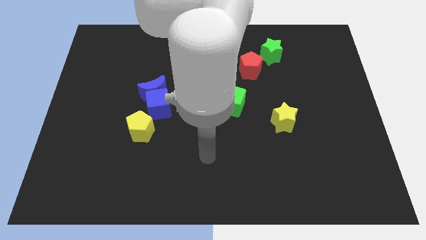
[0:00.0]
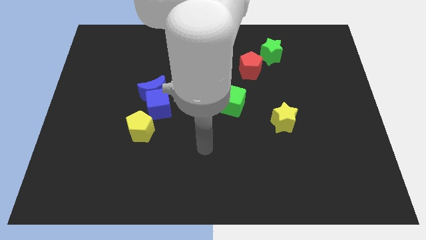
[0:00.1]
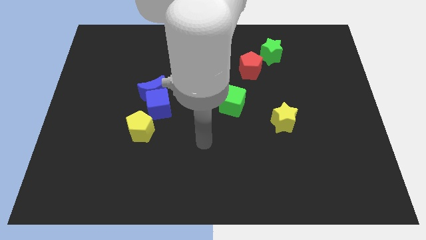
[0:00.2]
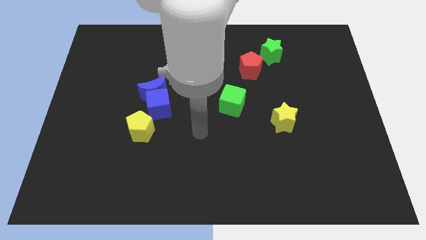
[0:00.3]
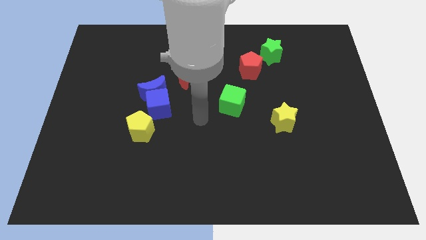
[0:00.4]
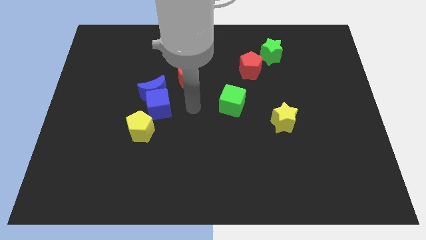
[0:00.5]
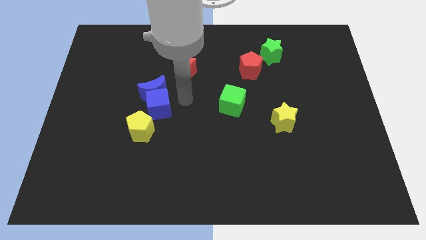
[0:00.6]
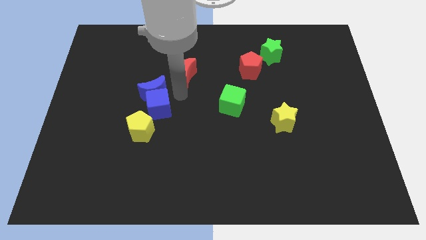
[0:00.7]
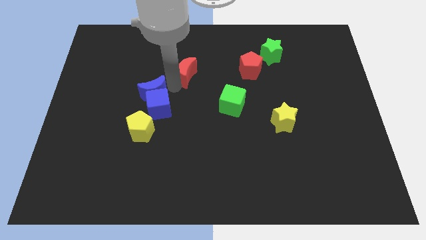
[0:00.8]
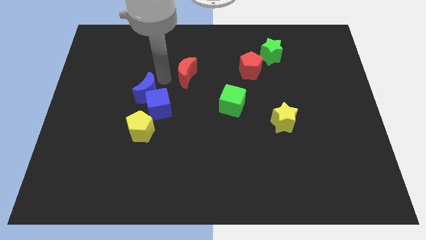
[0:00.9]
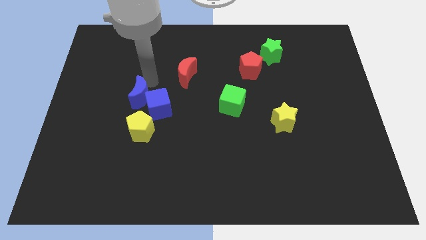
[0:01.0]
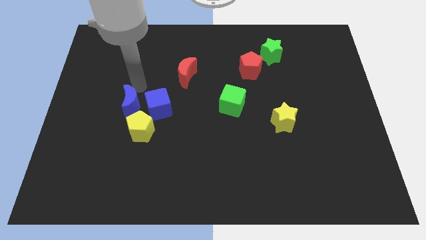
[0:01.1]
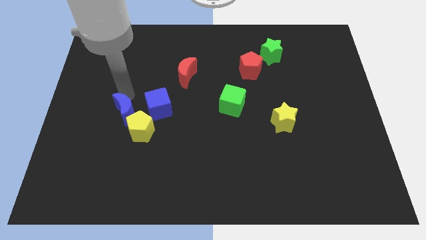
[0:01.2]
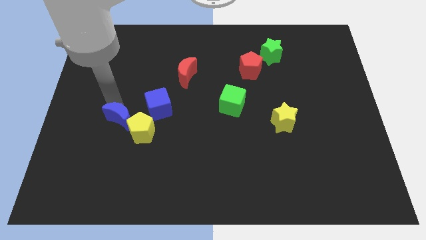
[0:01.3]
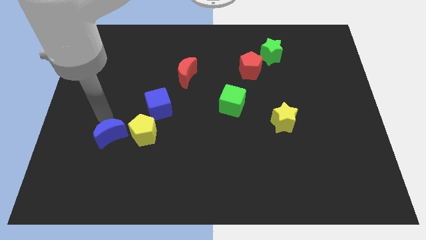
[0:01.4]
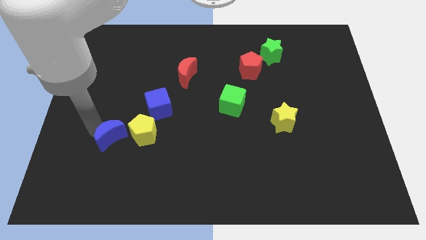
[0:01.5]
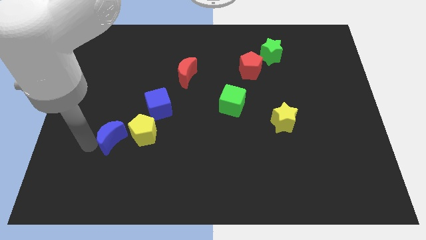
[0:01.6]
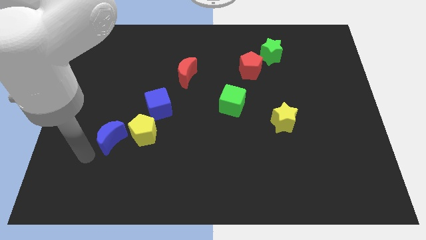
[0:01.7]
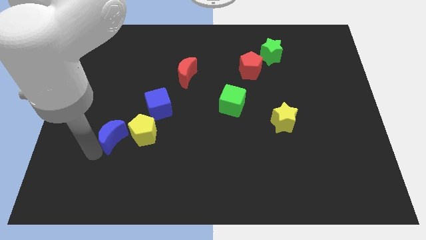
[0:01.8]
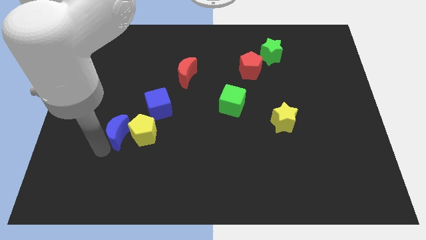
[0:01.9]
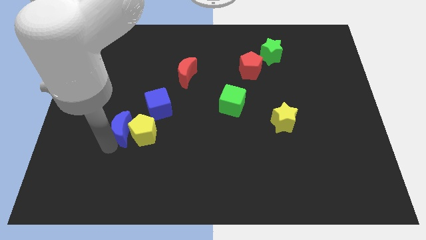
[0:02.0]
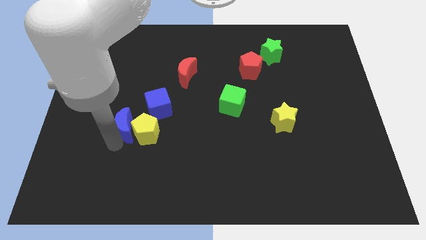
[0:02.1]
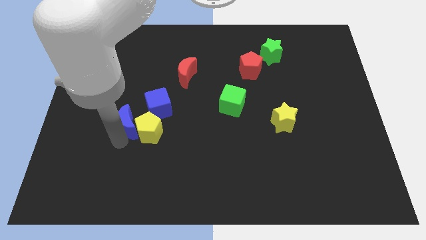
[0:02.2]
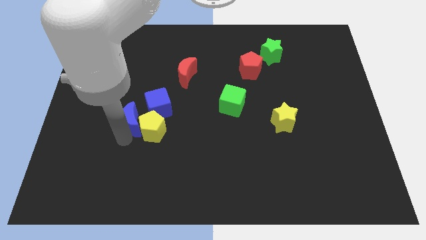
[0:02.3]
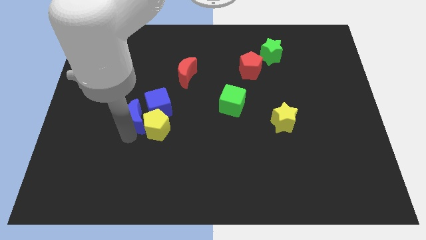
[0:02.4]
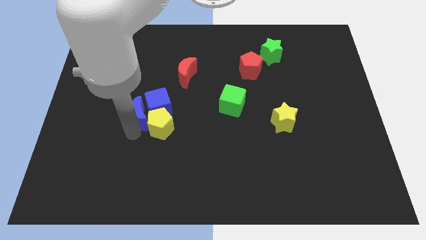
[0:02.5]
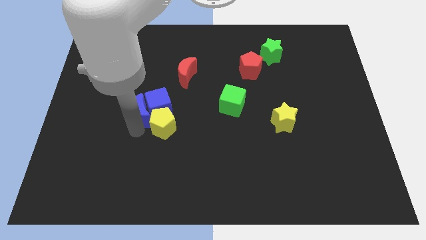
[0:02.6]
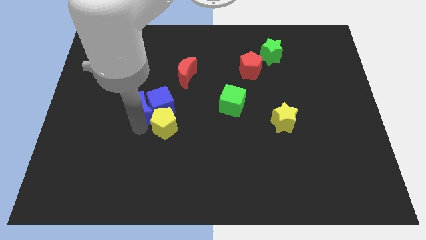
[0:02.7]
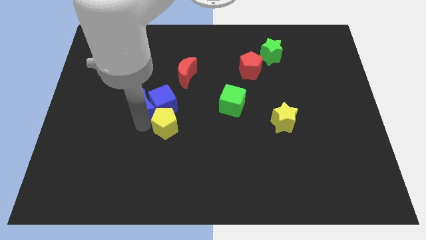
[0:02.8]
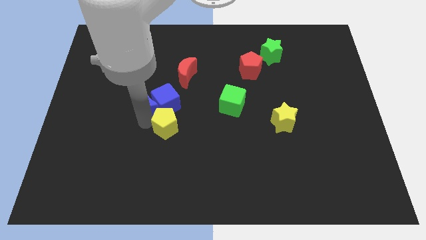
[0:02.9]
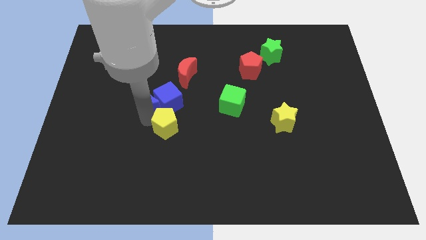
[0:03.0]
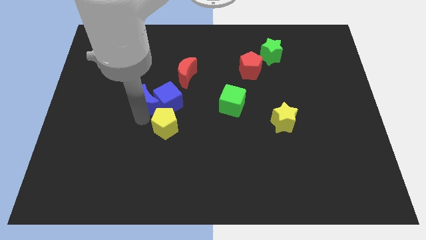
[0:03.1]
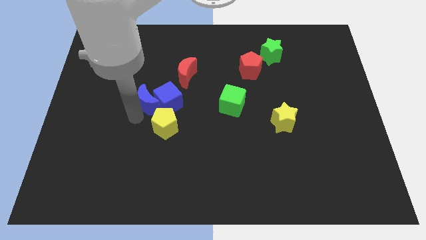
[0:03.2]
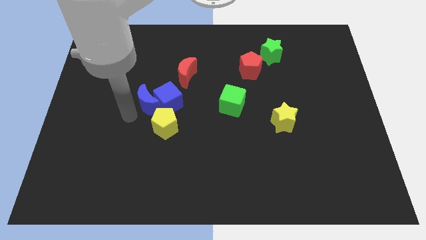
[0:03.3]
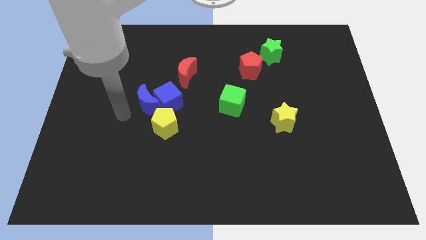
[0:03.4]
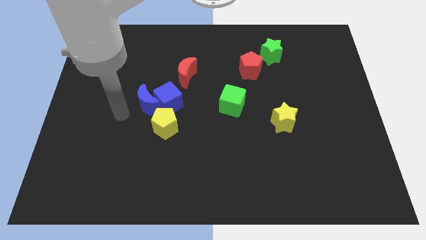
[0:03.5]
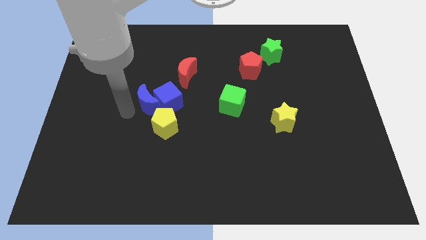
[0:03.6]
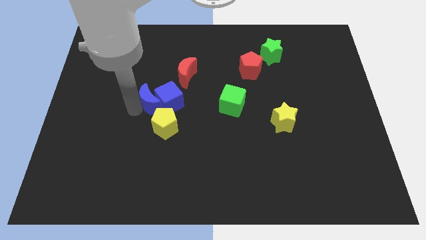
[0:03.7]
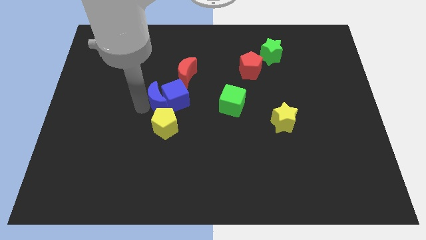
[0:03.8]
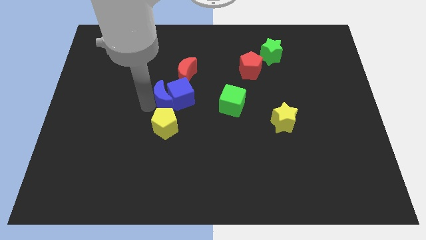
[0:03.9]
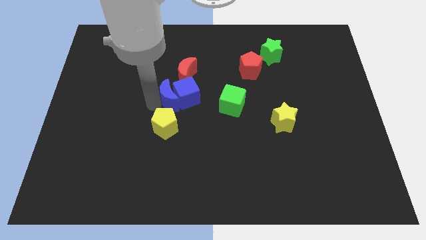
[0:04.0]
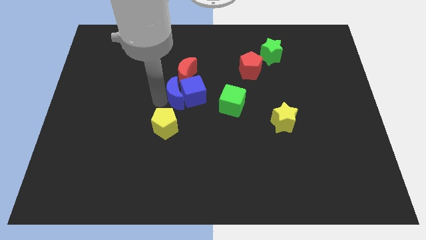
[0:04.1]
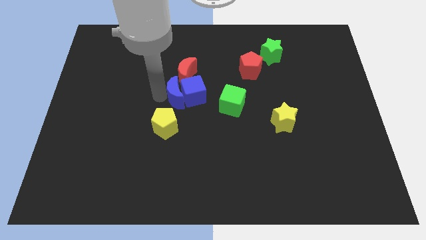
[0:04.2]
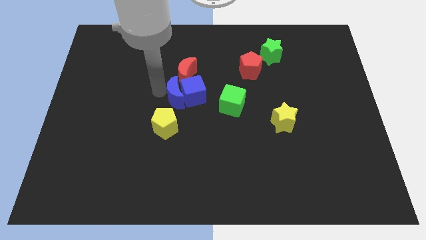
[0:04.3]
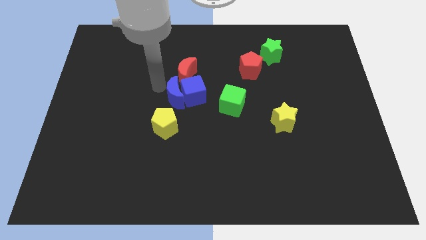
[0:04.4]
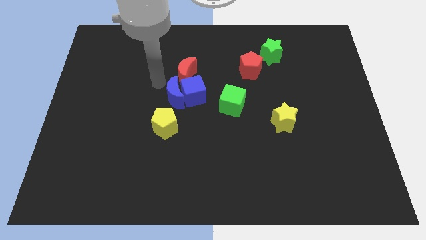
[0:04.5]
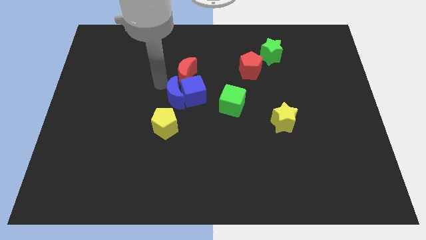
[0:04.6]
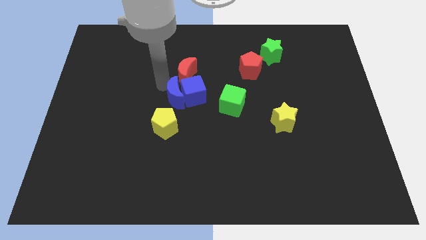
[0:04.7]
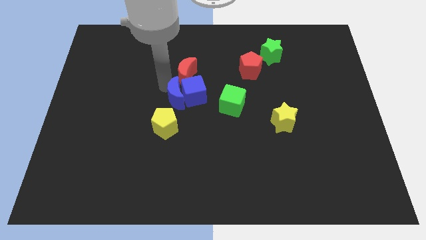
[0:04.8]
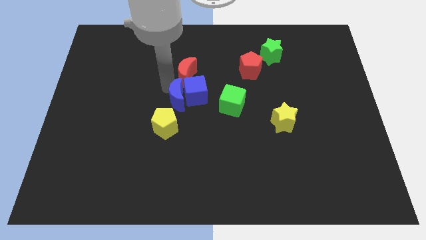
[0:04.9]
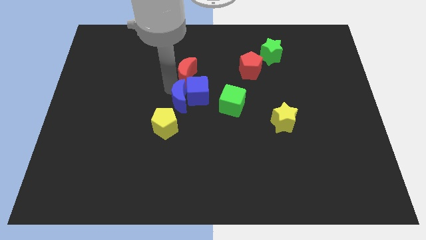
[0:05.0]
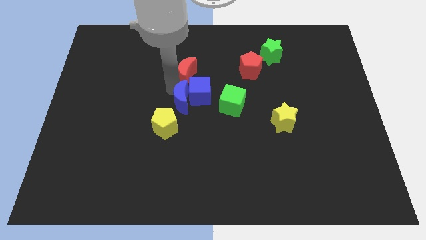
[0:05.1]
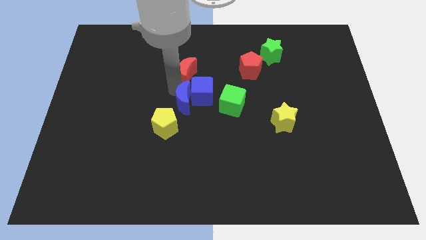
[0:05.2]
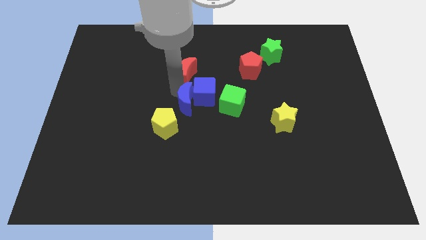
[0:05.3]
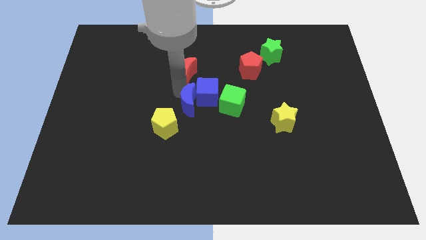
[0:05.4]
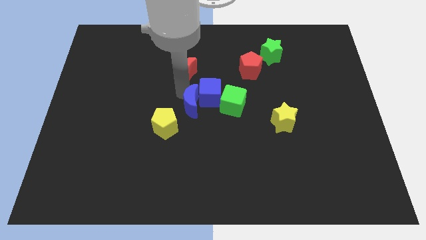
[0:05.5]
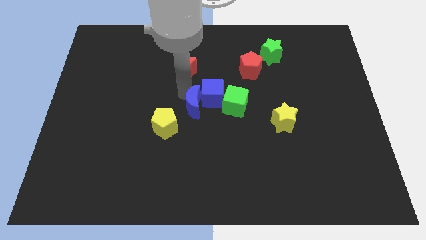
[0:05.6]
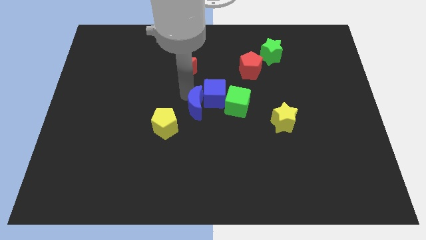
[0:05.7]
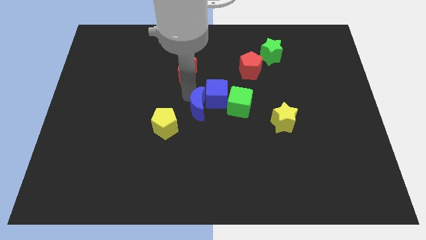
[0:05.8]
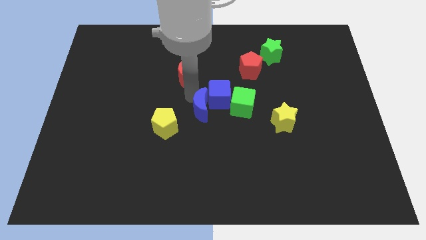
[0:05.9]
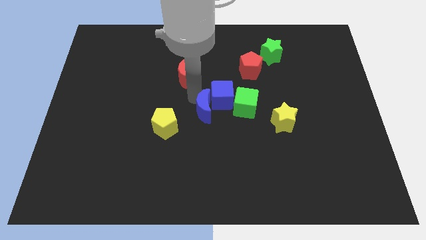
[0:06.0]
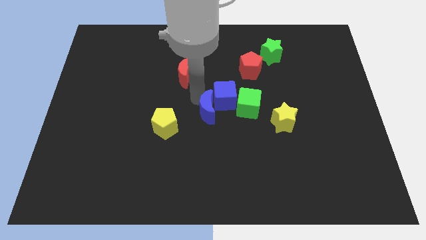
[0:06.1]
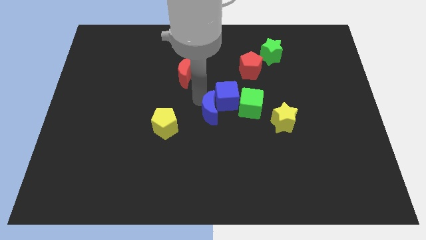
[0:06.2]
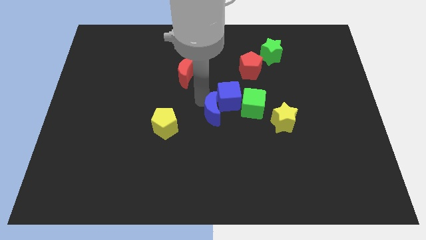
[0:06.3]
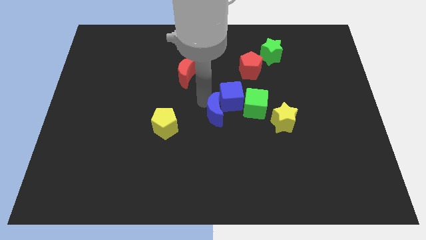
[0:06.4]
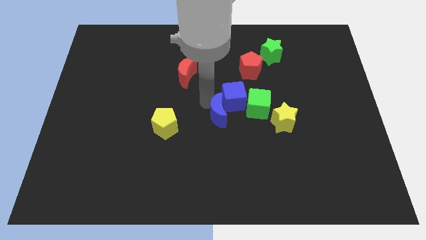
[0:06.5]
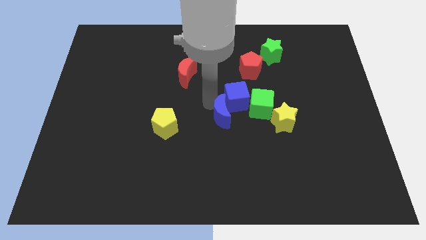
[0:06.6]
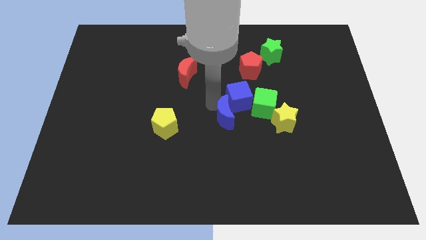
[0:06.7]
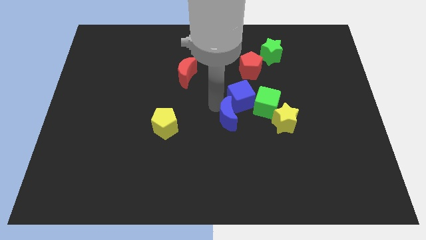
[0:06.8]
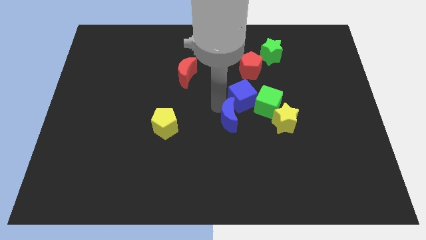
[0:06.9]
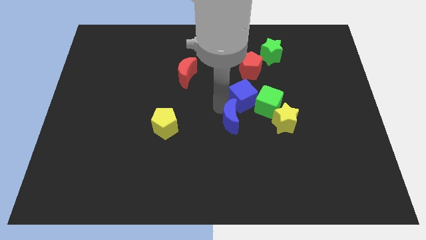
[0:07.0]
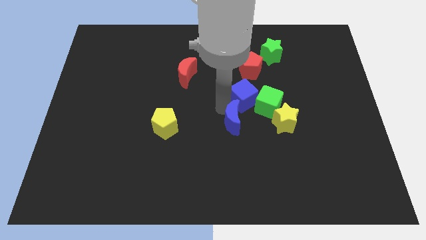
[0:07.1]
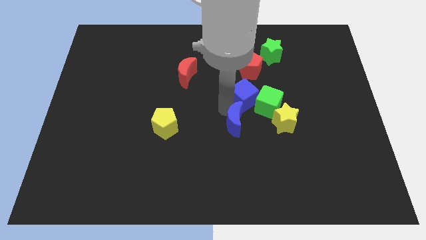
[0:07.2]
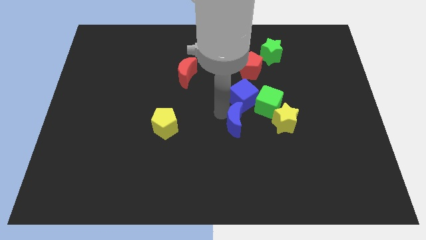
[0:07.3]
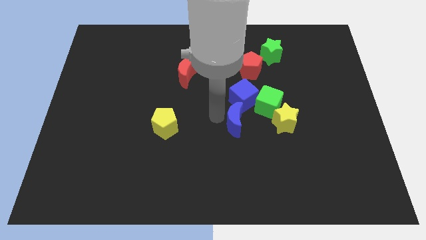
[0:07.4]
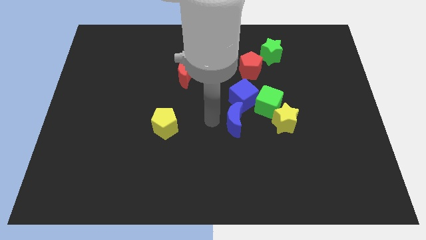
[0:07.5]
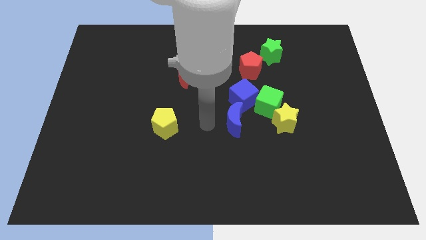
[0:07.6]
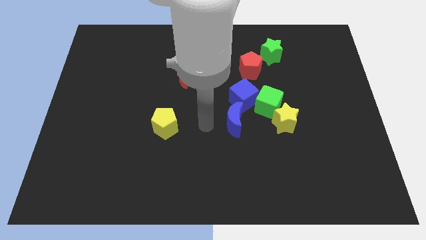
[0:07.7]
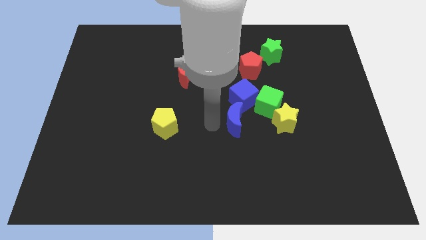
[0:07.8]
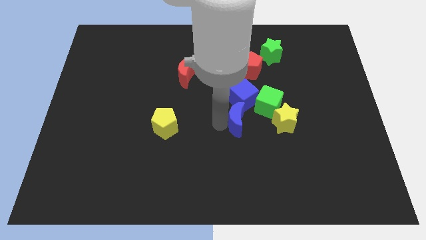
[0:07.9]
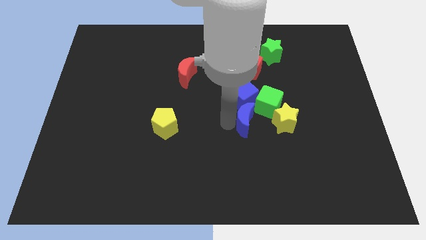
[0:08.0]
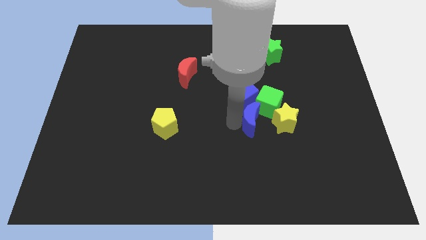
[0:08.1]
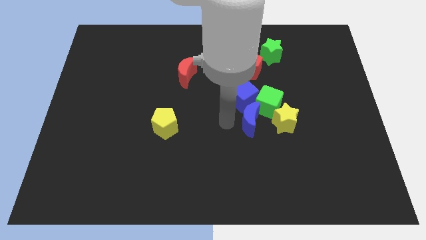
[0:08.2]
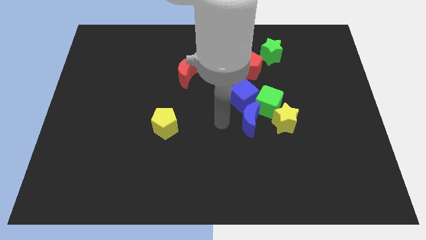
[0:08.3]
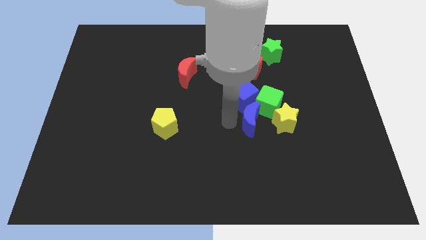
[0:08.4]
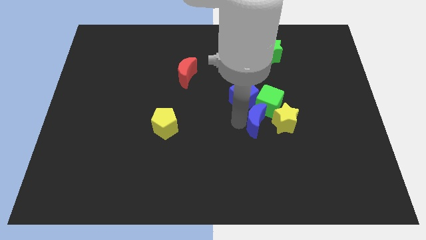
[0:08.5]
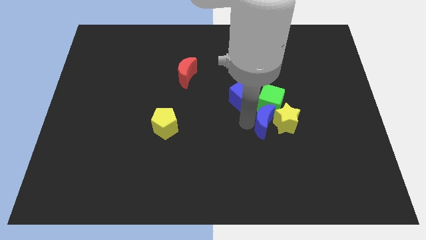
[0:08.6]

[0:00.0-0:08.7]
put the blue moon towards the yellow star
